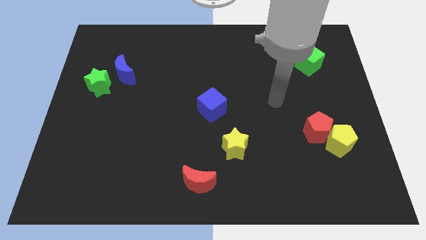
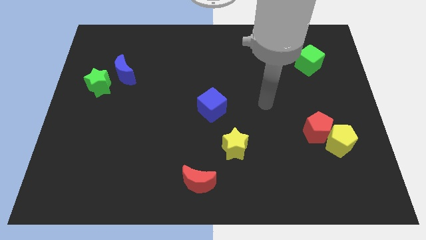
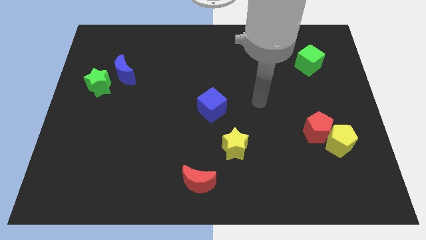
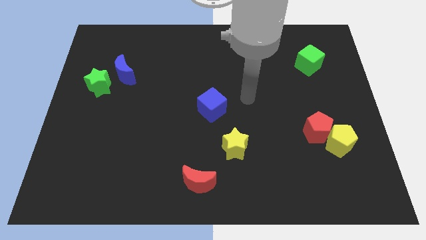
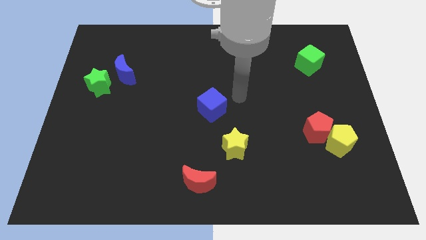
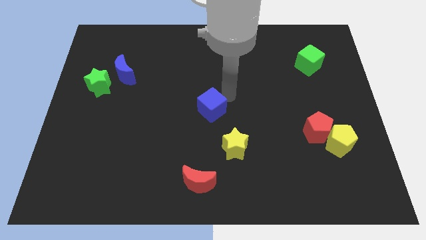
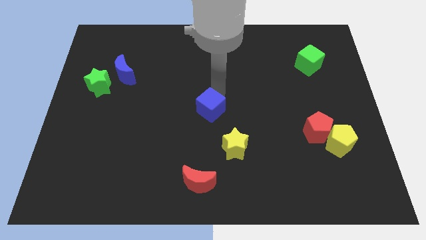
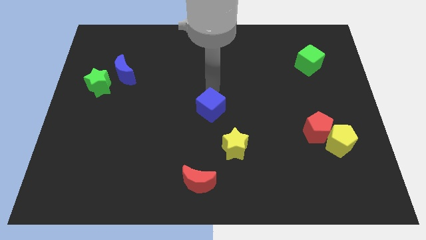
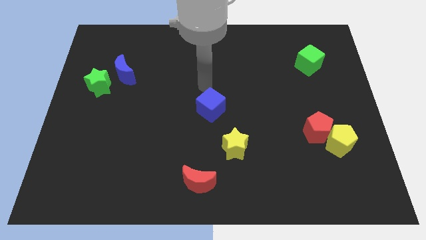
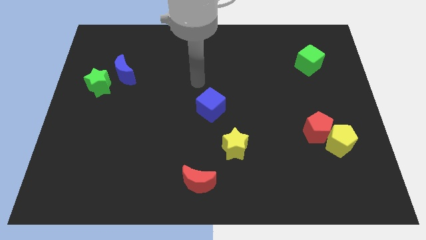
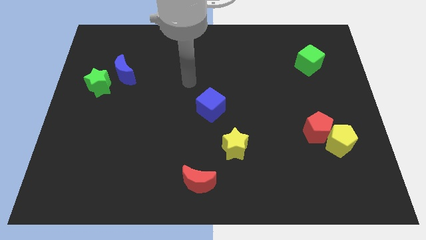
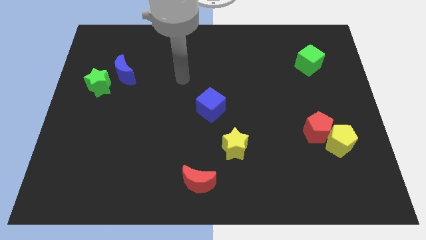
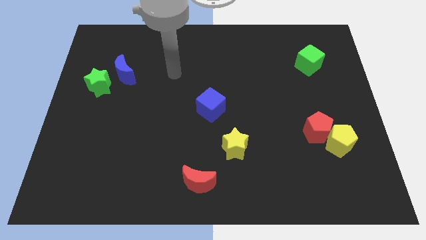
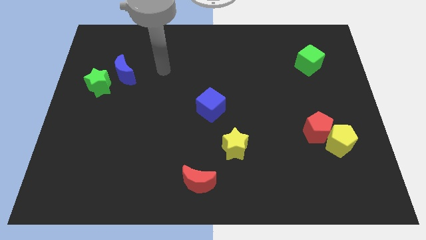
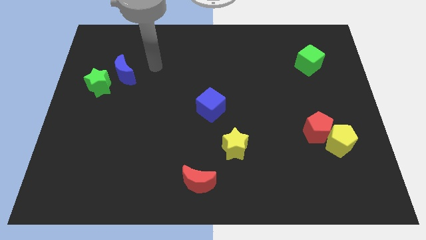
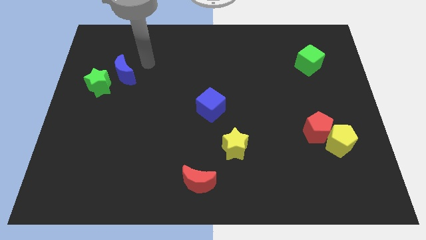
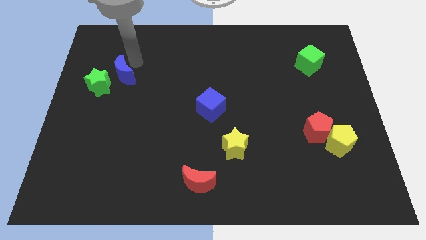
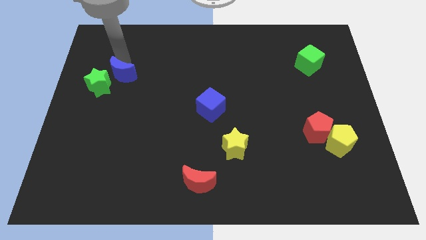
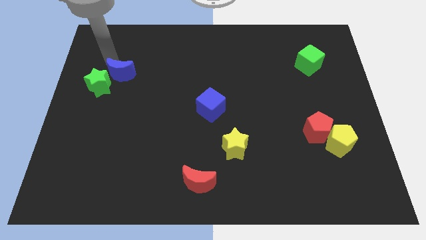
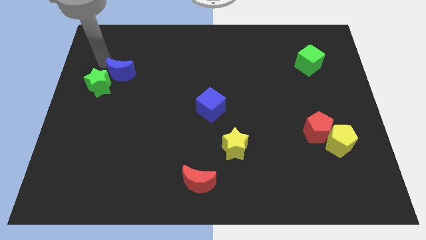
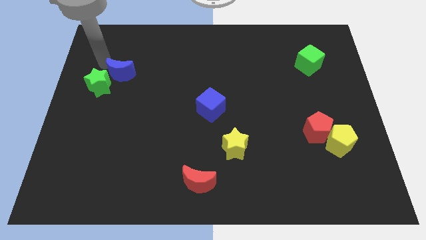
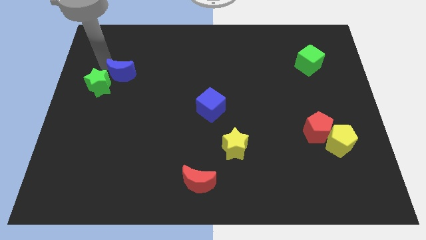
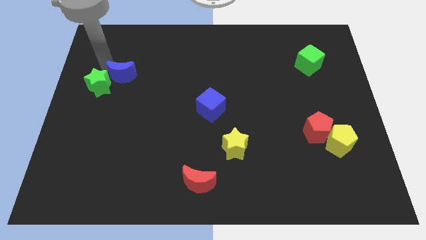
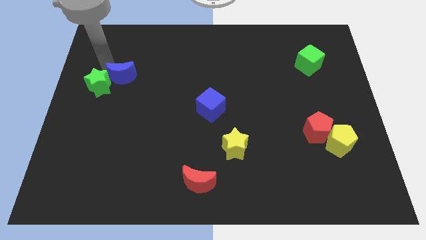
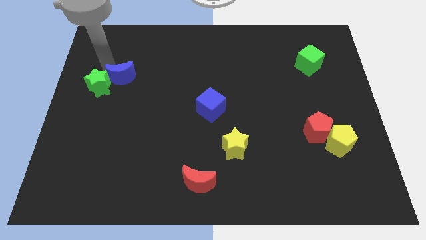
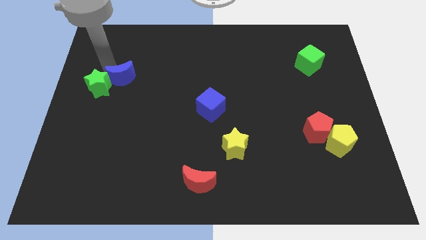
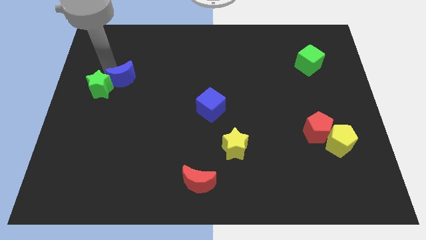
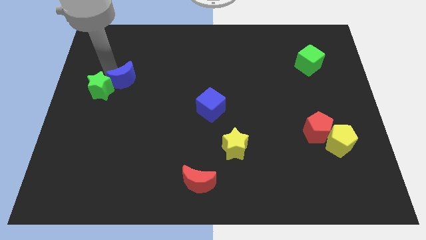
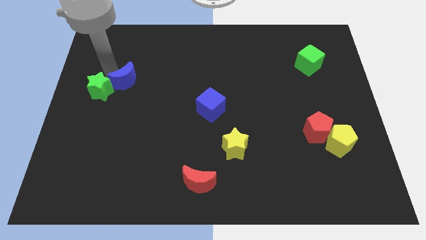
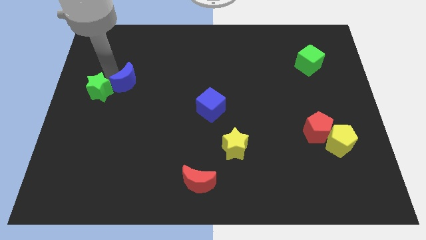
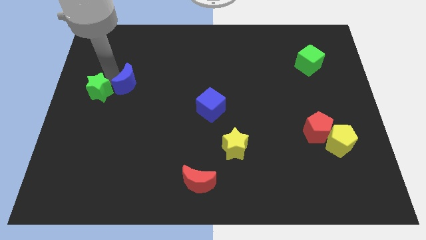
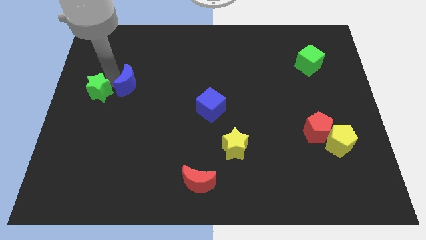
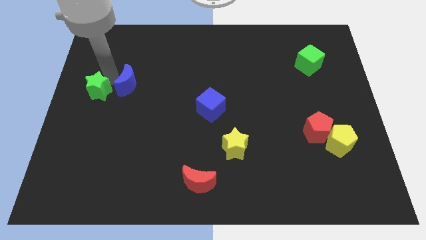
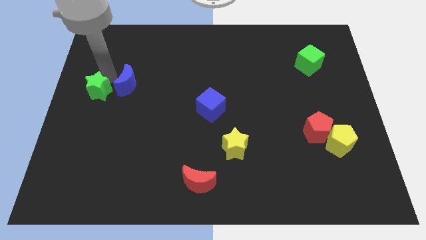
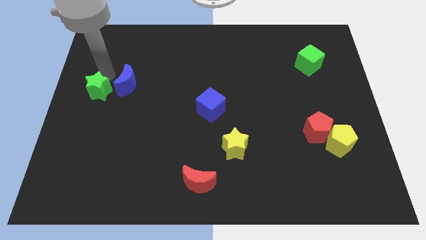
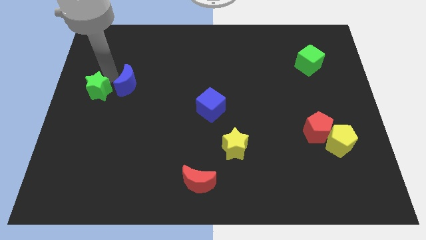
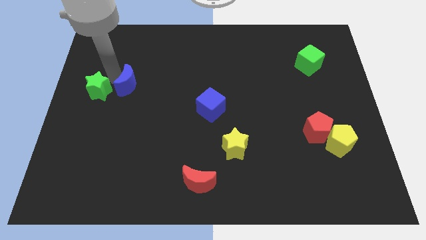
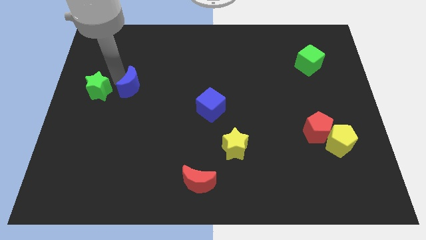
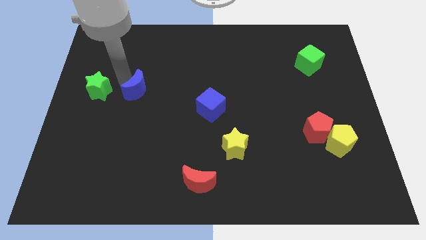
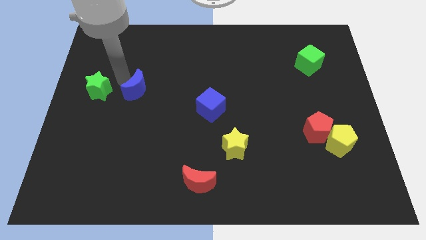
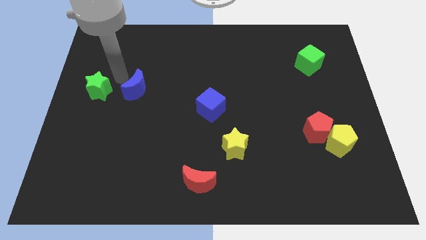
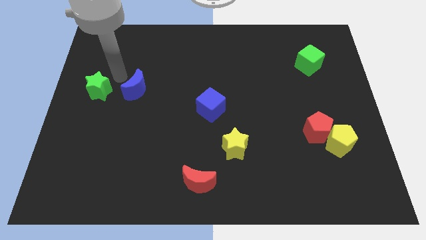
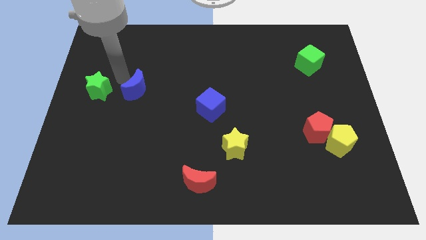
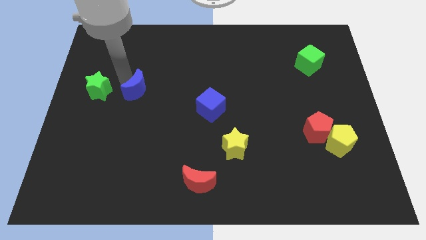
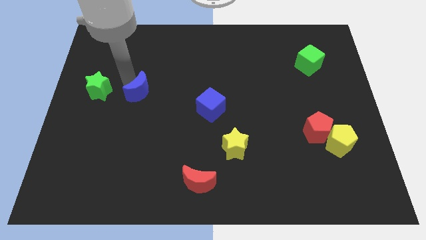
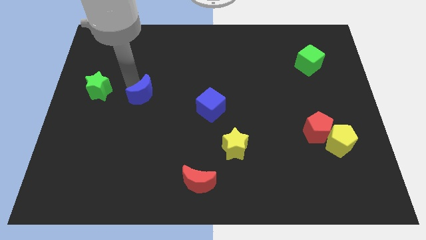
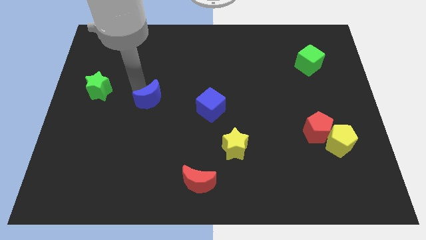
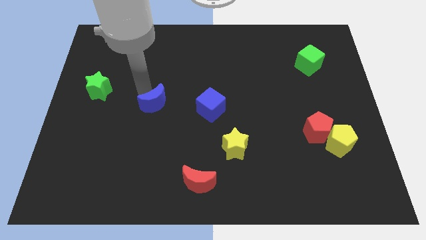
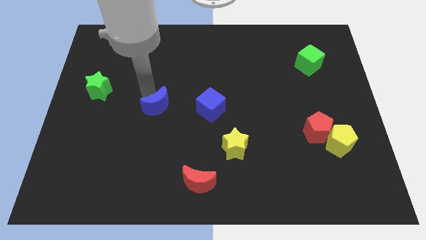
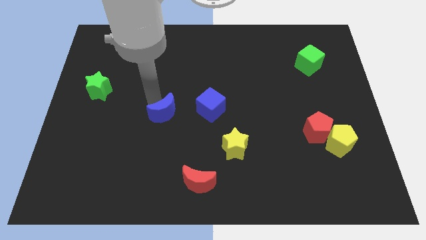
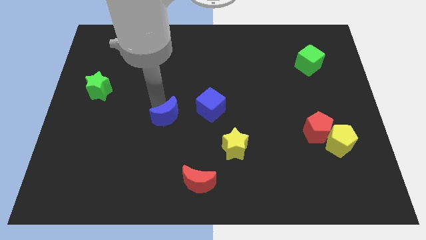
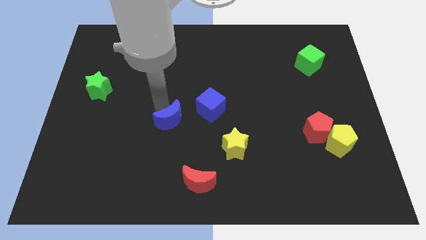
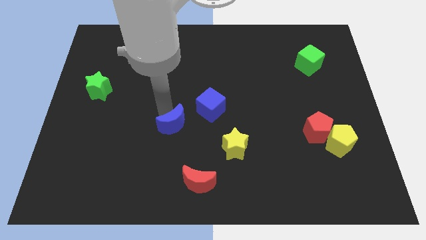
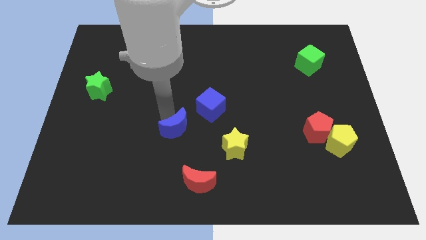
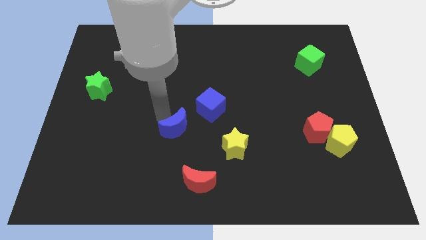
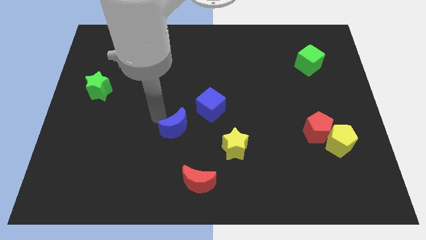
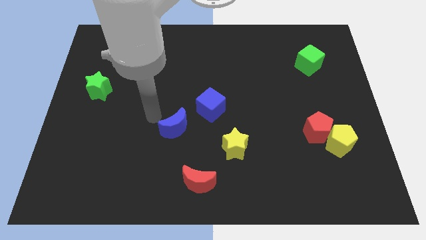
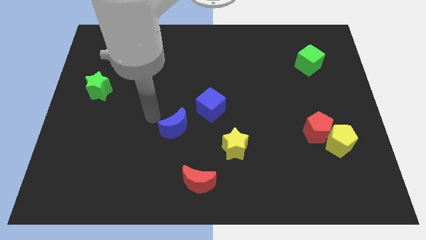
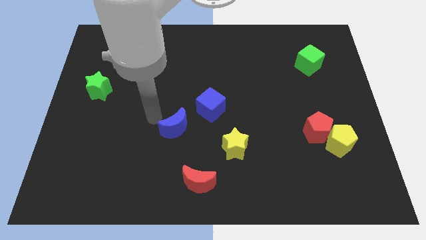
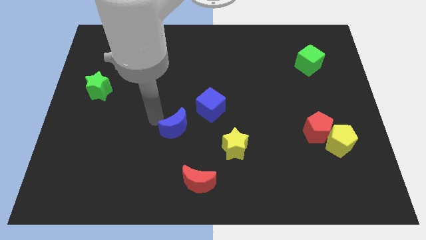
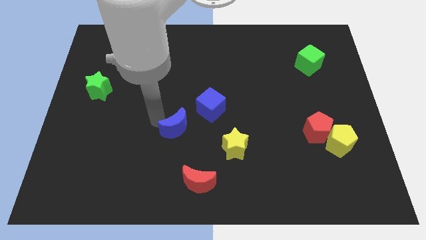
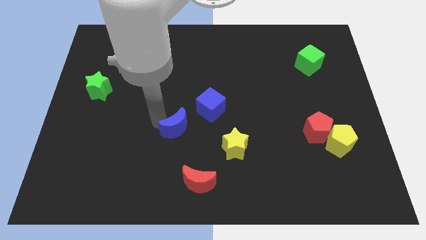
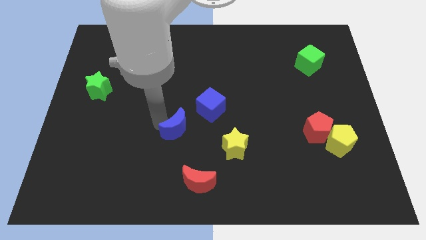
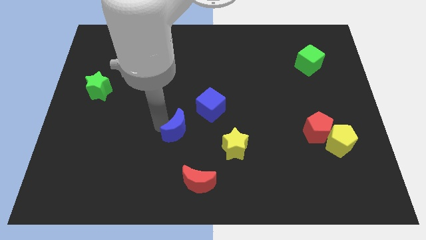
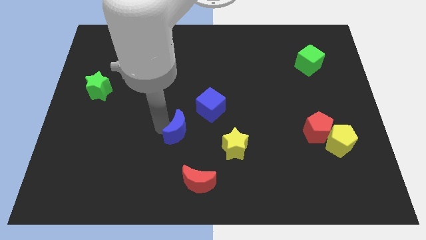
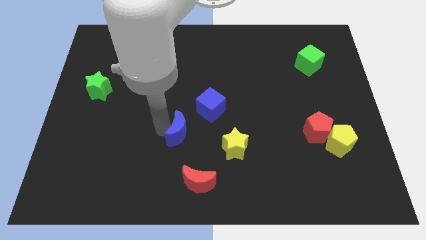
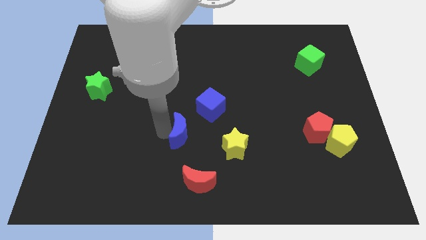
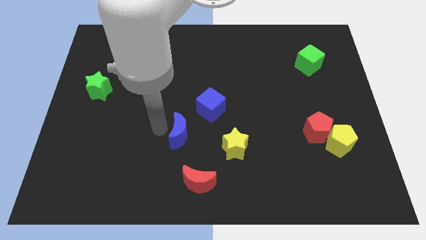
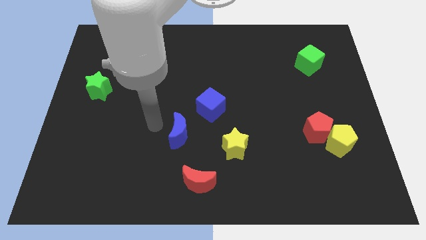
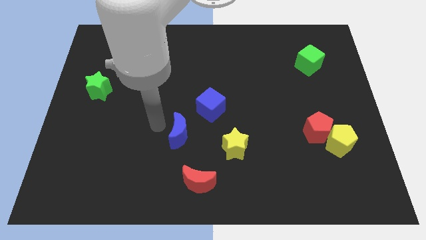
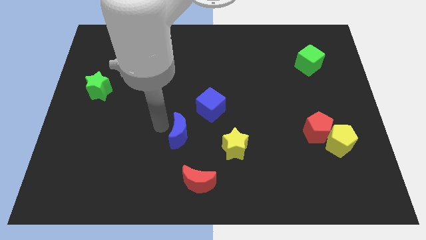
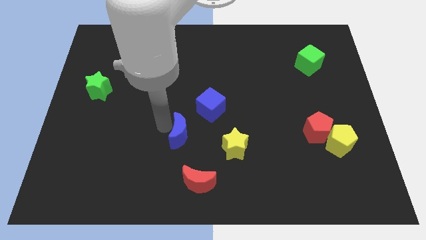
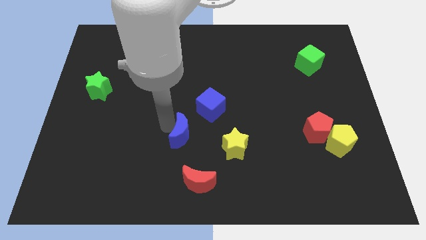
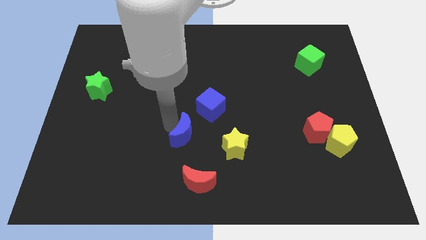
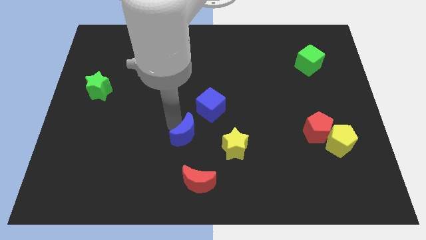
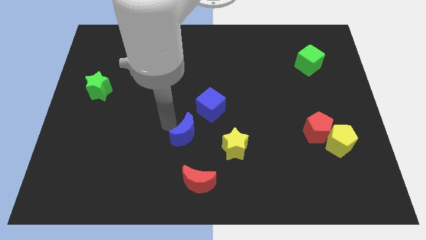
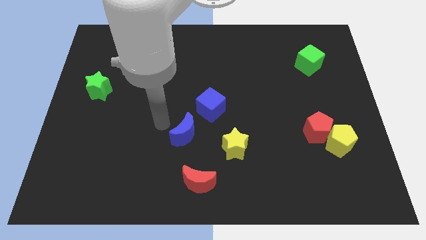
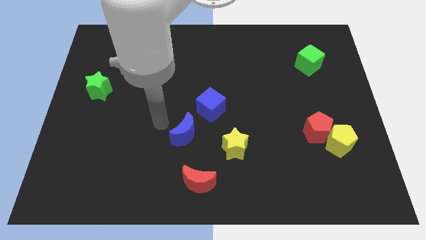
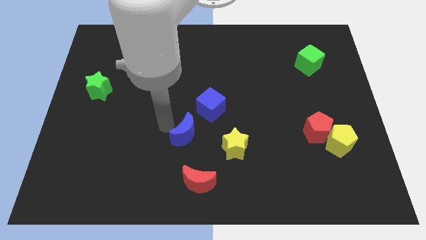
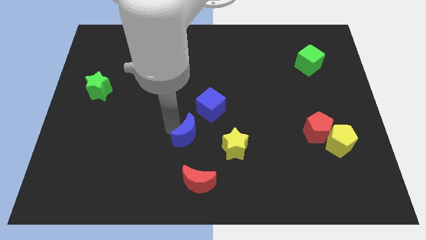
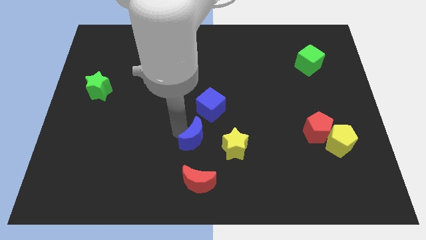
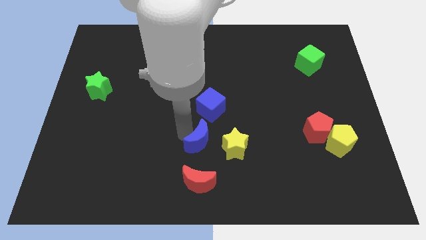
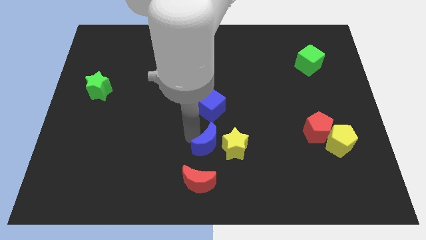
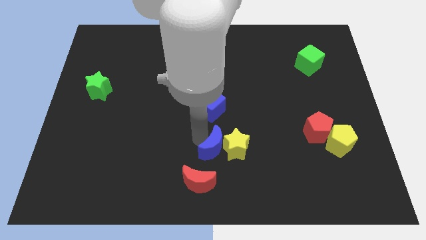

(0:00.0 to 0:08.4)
move the blue moon diagonally up and to the right of the red moon
